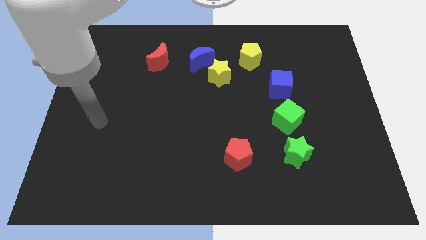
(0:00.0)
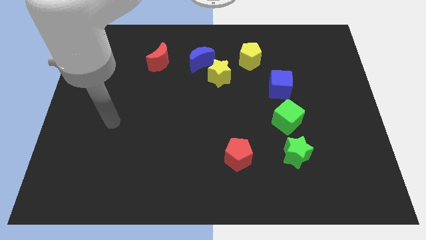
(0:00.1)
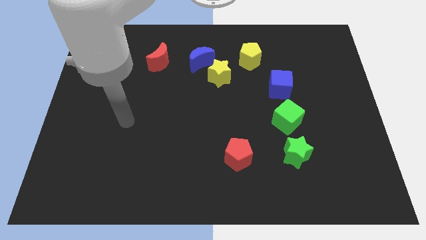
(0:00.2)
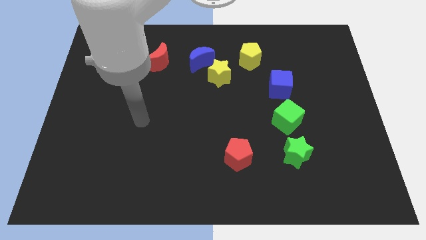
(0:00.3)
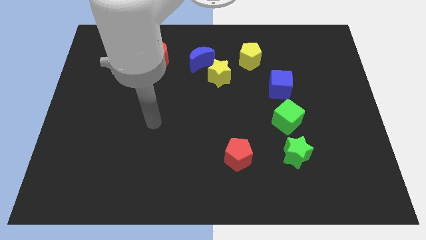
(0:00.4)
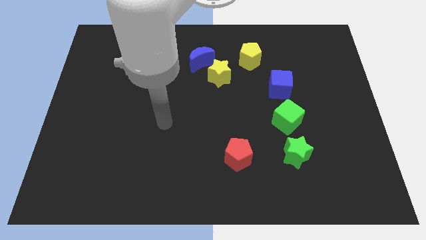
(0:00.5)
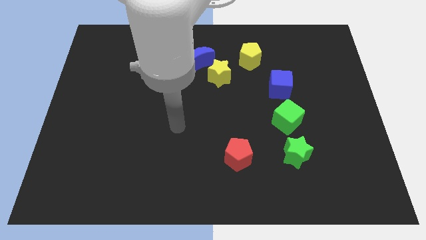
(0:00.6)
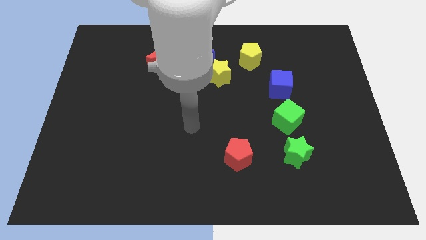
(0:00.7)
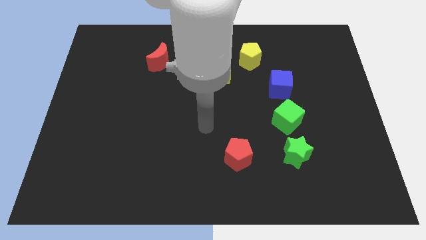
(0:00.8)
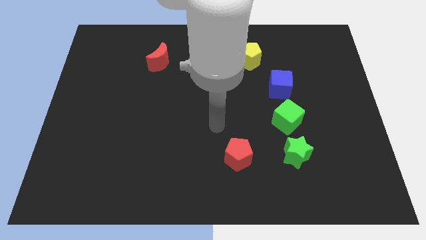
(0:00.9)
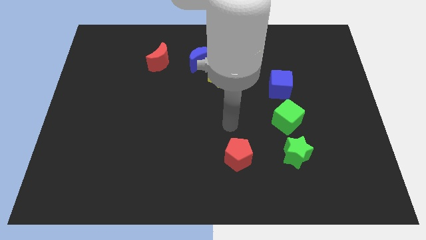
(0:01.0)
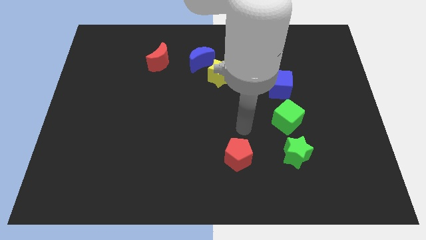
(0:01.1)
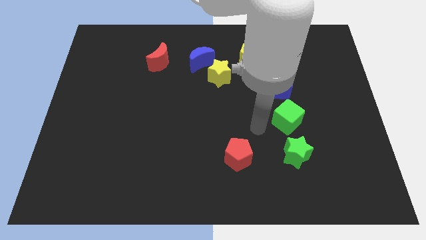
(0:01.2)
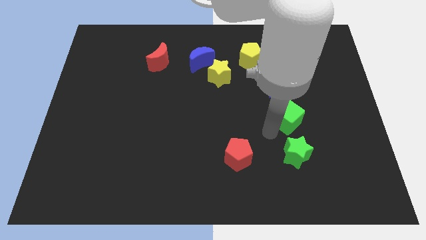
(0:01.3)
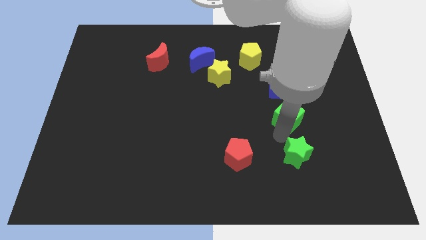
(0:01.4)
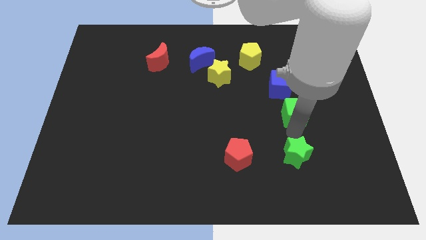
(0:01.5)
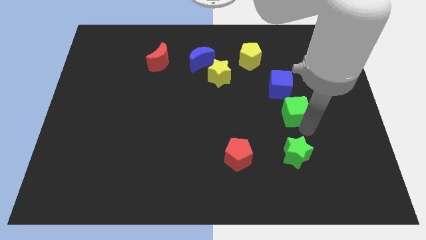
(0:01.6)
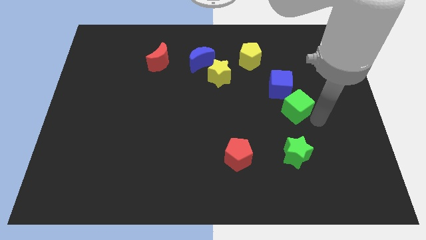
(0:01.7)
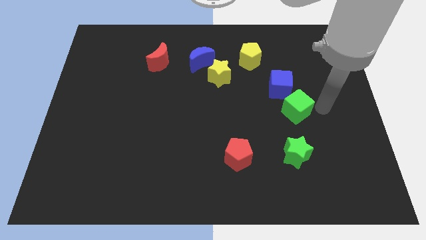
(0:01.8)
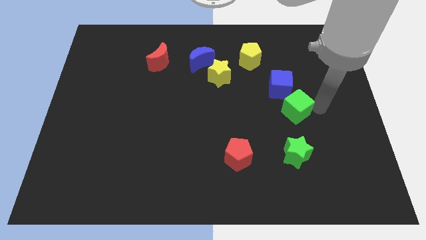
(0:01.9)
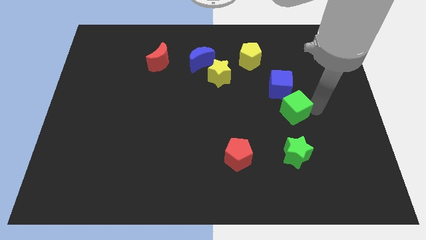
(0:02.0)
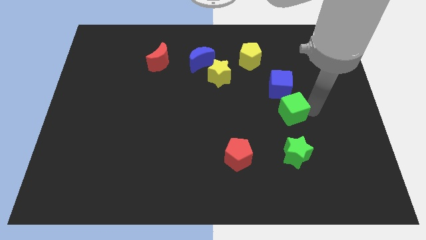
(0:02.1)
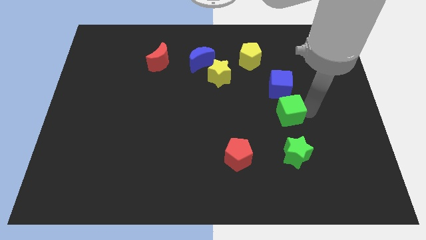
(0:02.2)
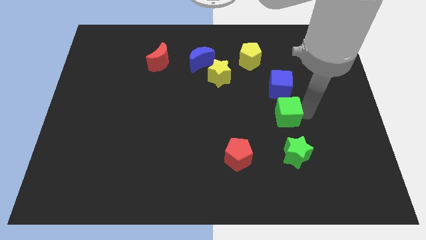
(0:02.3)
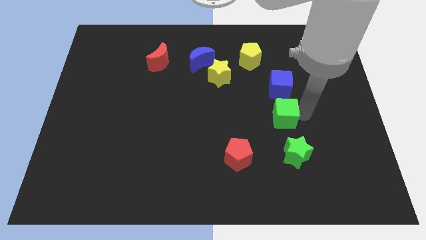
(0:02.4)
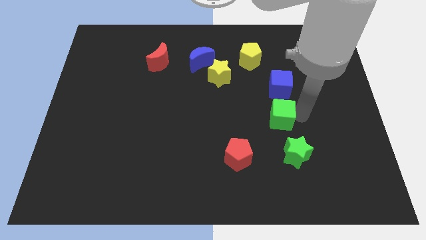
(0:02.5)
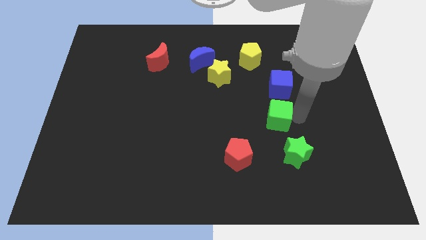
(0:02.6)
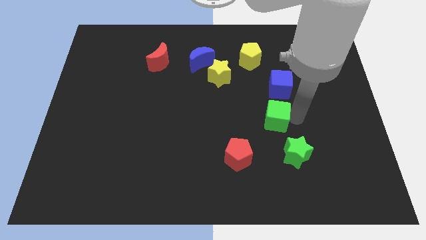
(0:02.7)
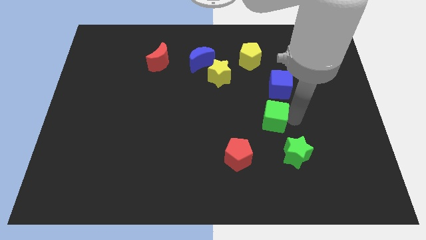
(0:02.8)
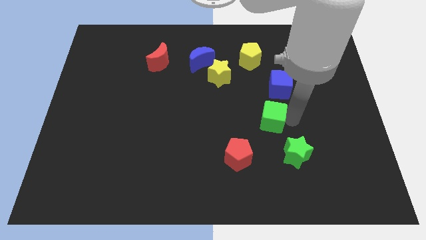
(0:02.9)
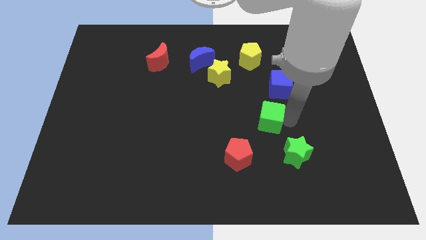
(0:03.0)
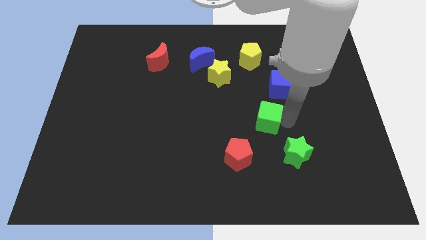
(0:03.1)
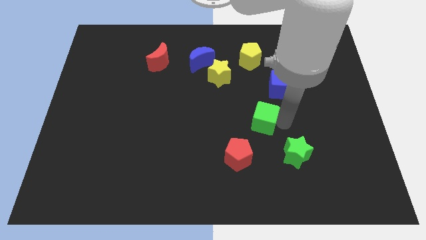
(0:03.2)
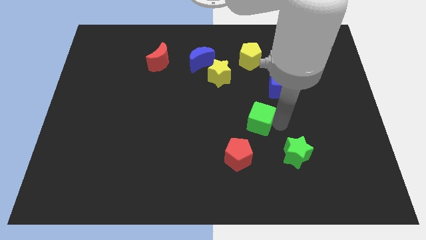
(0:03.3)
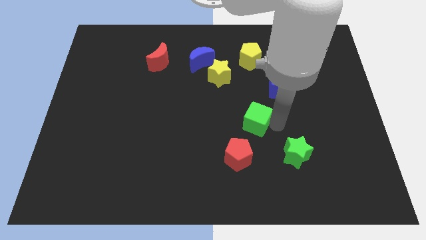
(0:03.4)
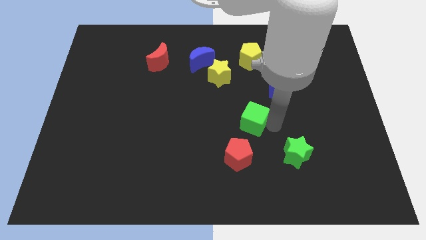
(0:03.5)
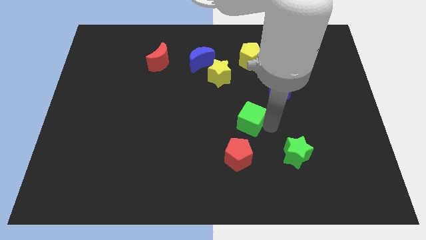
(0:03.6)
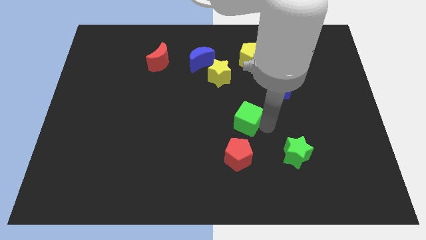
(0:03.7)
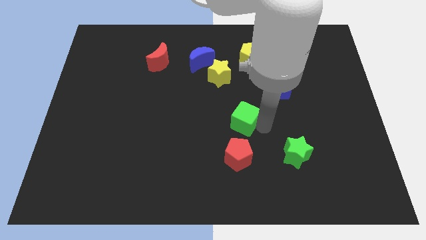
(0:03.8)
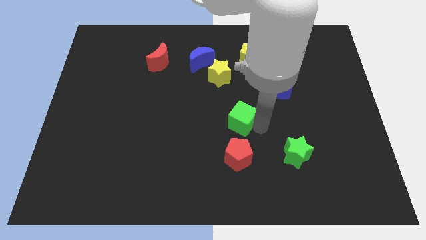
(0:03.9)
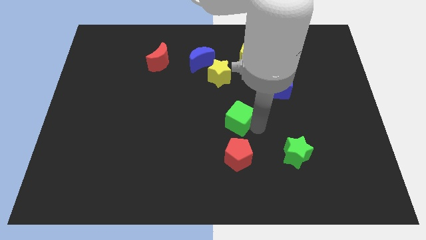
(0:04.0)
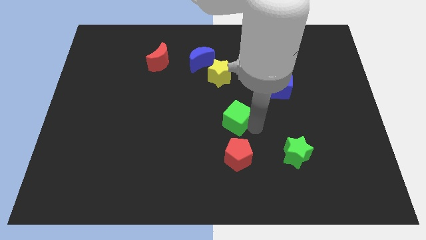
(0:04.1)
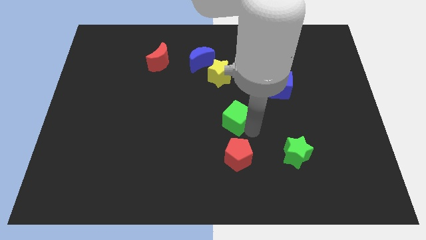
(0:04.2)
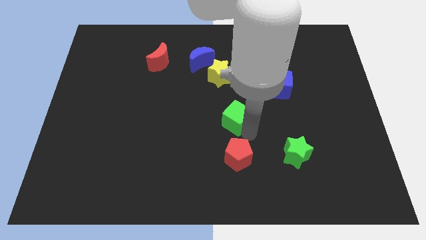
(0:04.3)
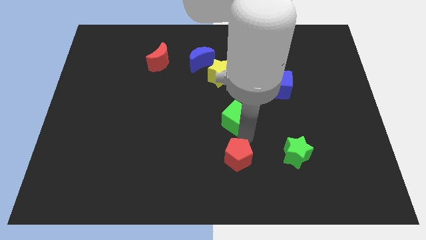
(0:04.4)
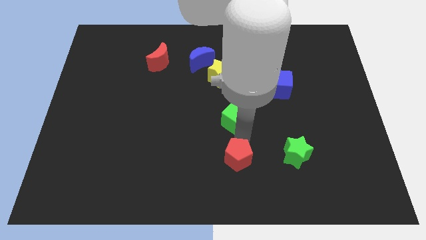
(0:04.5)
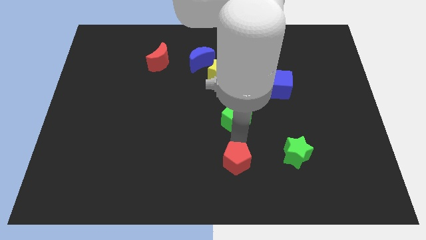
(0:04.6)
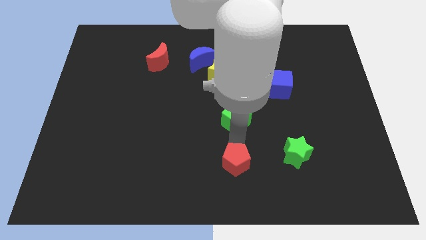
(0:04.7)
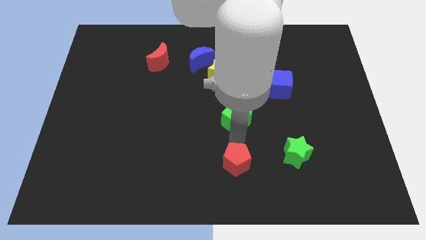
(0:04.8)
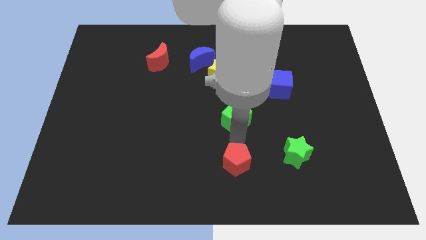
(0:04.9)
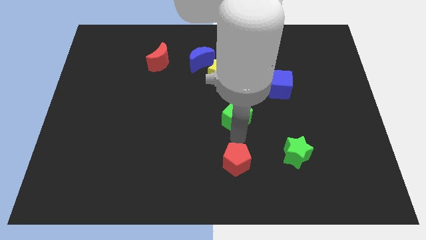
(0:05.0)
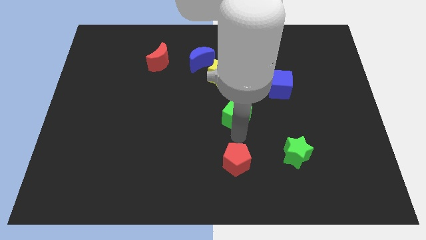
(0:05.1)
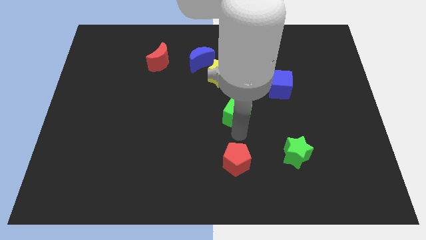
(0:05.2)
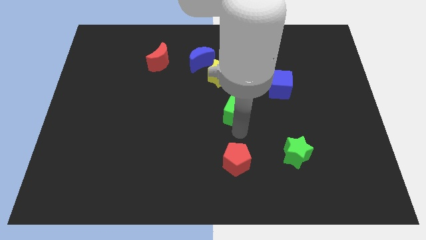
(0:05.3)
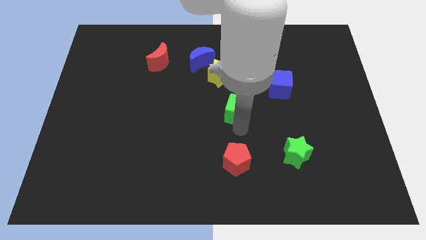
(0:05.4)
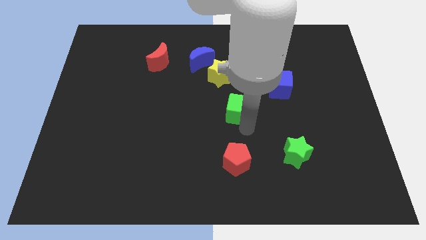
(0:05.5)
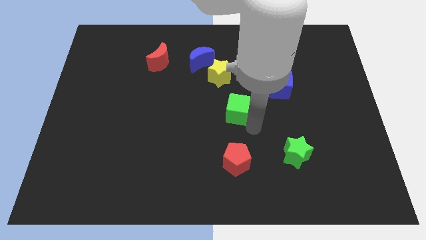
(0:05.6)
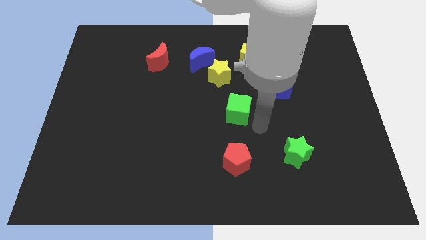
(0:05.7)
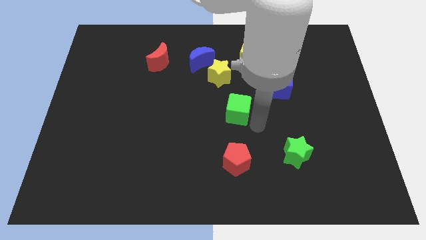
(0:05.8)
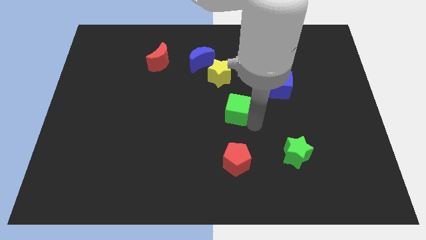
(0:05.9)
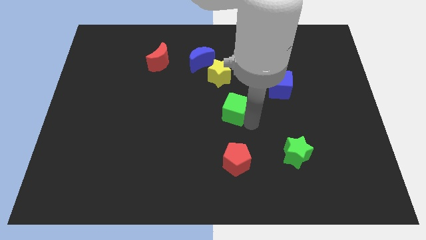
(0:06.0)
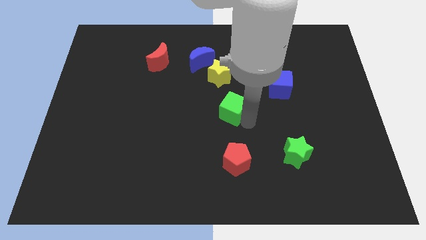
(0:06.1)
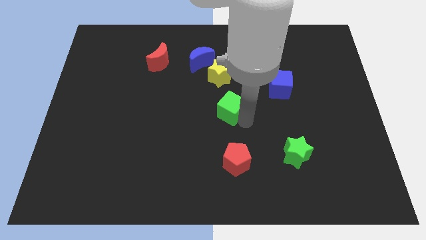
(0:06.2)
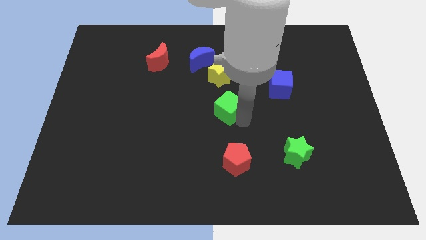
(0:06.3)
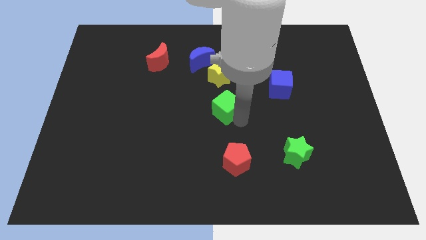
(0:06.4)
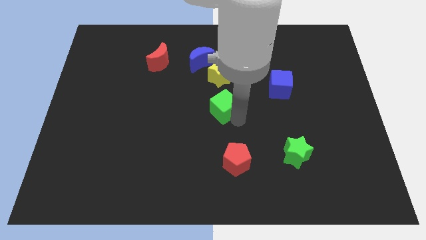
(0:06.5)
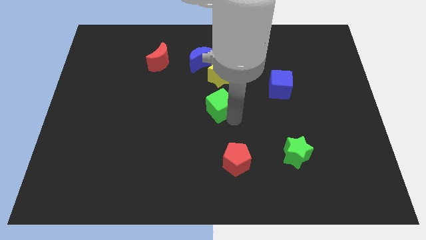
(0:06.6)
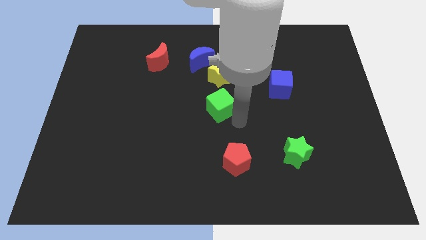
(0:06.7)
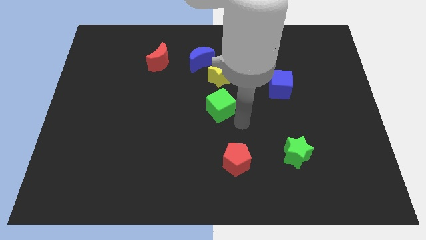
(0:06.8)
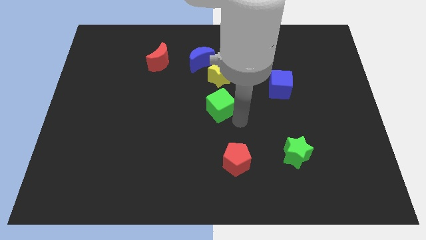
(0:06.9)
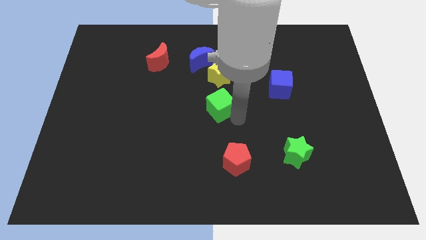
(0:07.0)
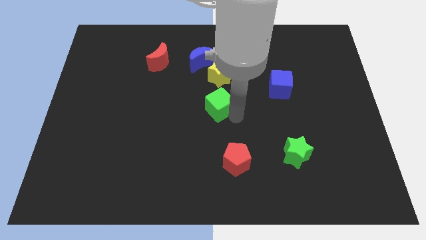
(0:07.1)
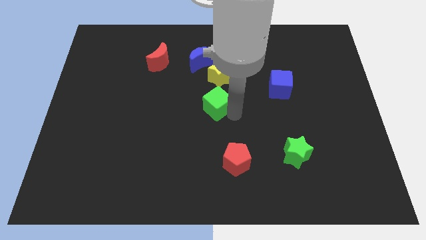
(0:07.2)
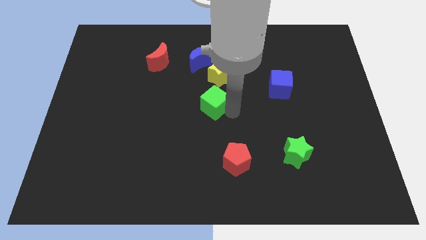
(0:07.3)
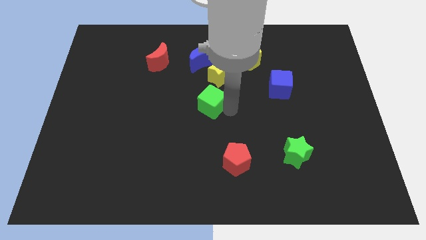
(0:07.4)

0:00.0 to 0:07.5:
move the green cube diagonally down and to the left of the yellow star

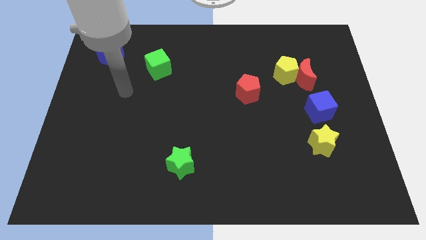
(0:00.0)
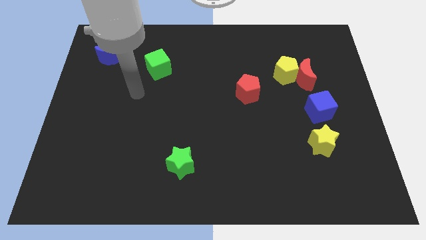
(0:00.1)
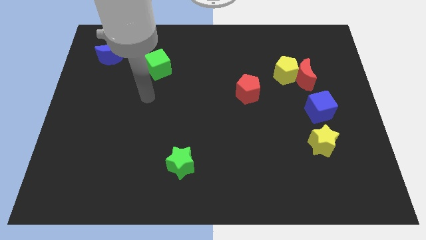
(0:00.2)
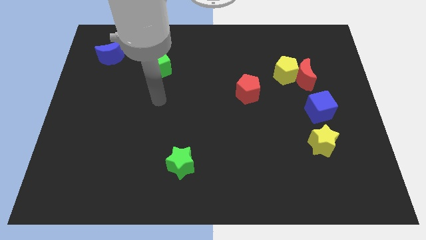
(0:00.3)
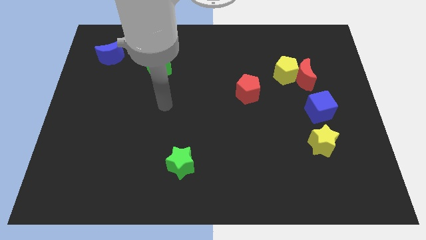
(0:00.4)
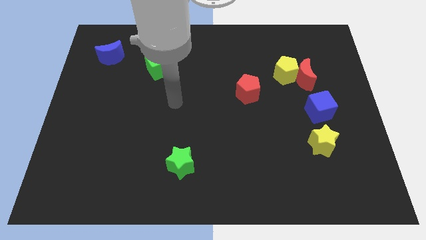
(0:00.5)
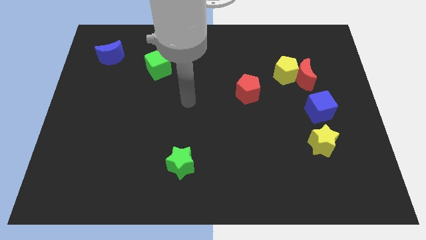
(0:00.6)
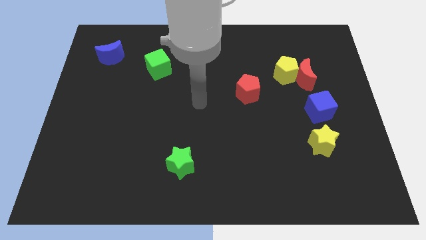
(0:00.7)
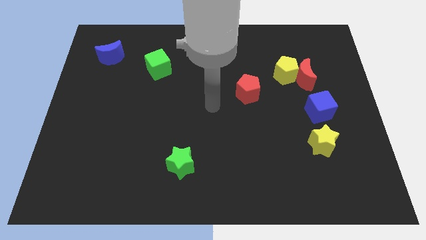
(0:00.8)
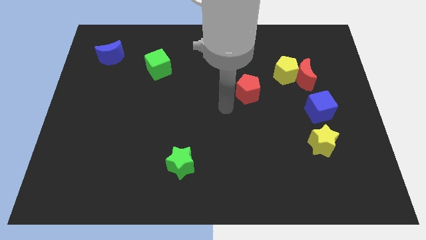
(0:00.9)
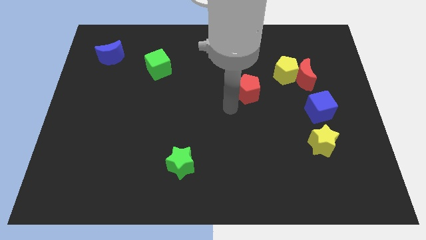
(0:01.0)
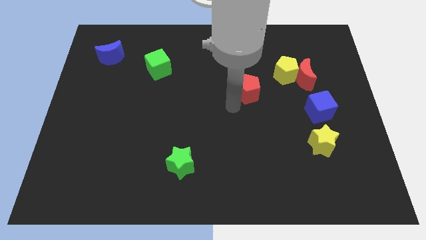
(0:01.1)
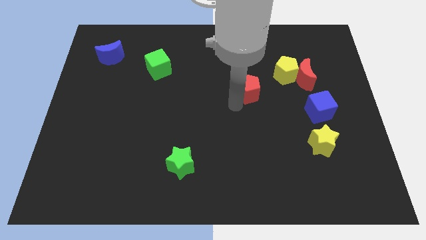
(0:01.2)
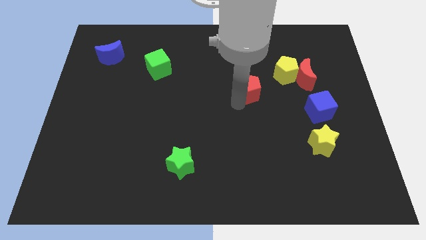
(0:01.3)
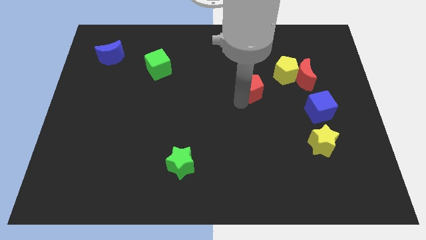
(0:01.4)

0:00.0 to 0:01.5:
move the red pentagon left of the red moon
